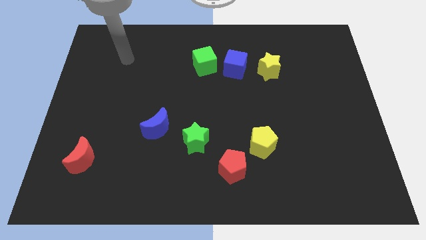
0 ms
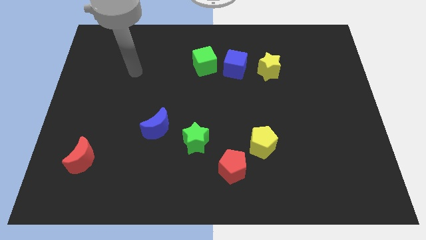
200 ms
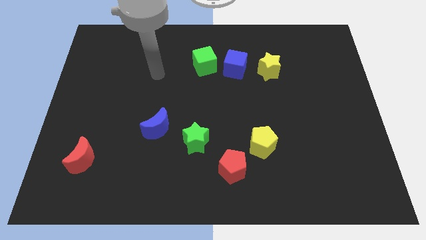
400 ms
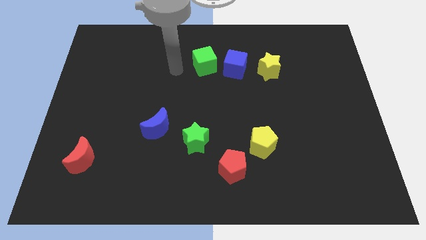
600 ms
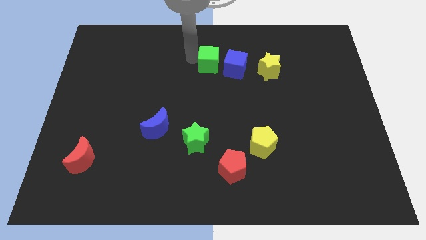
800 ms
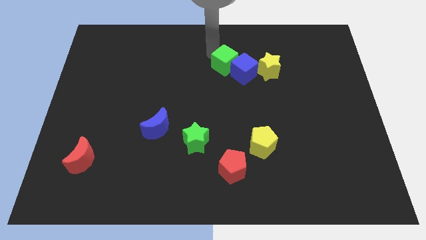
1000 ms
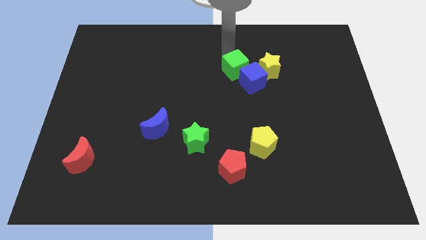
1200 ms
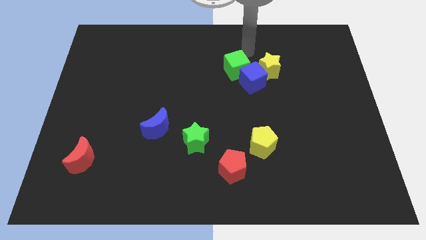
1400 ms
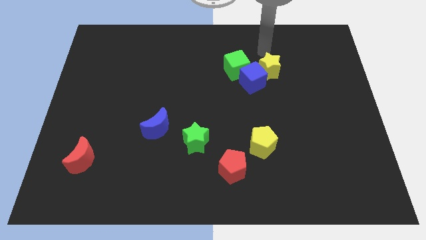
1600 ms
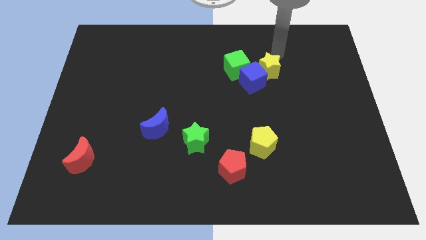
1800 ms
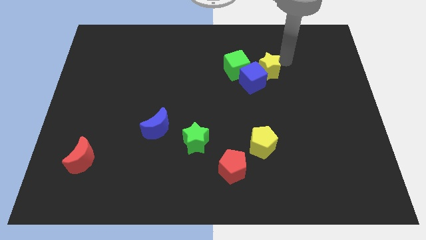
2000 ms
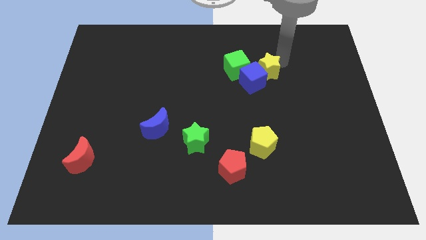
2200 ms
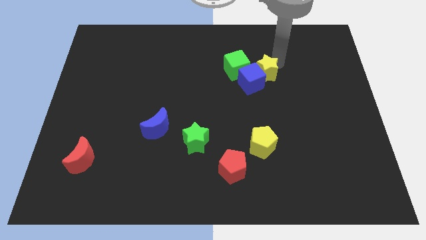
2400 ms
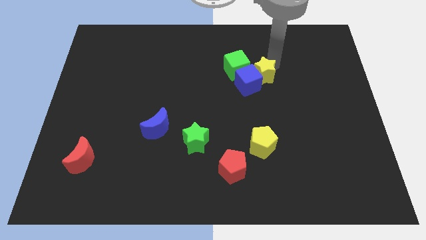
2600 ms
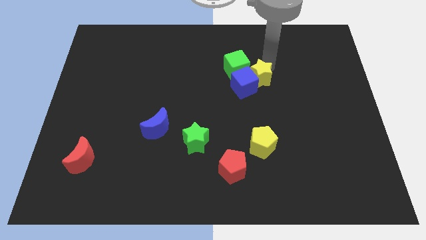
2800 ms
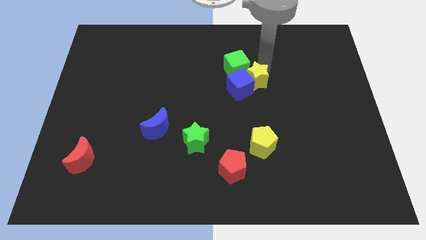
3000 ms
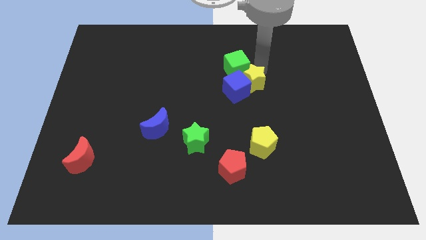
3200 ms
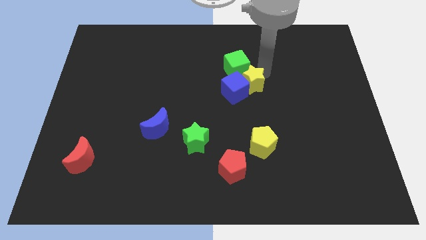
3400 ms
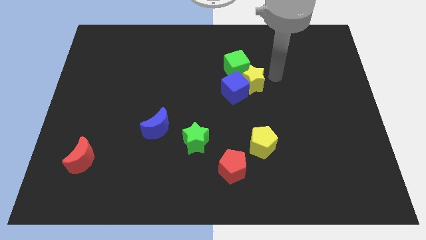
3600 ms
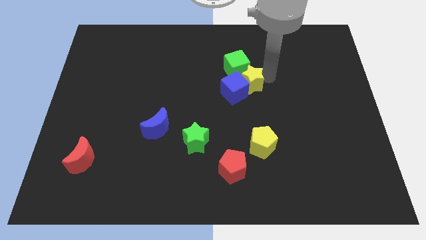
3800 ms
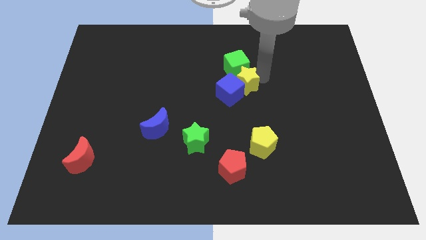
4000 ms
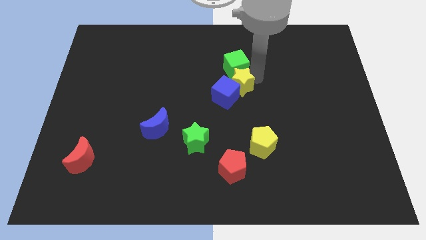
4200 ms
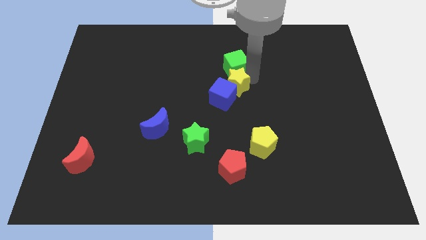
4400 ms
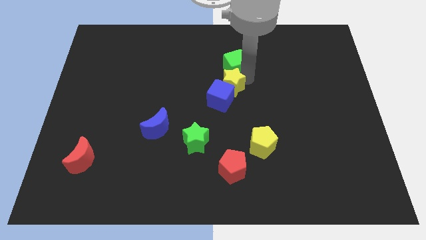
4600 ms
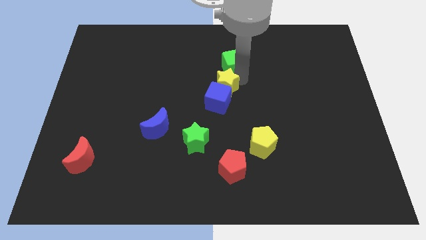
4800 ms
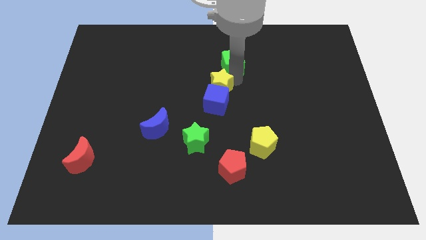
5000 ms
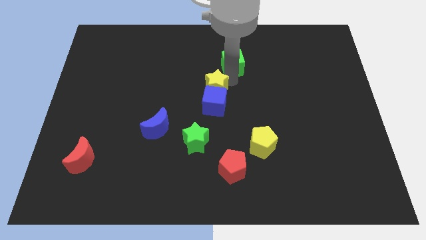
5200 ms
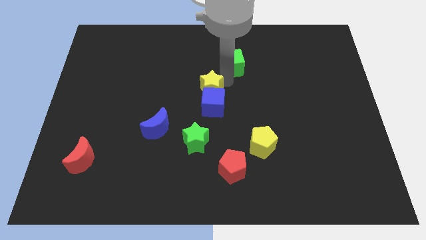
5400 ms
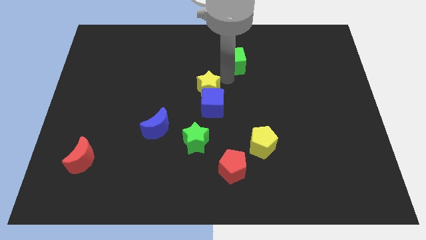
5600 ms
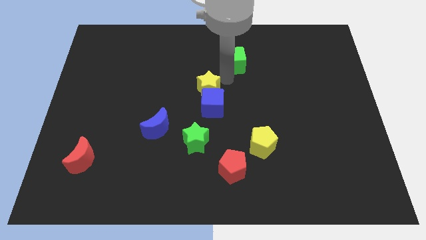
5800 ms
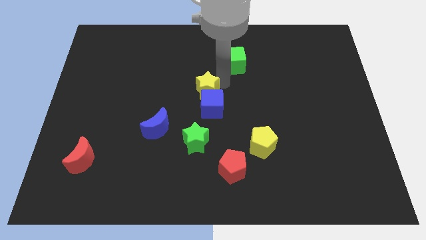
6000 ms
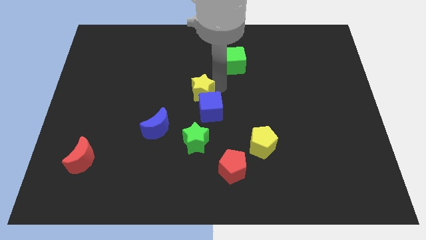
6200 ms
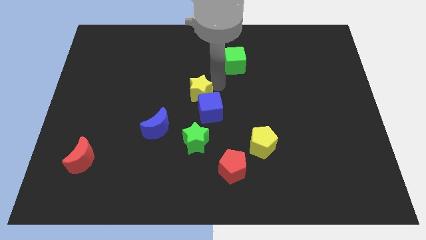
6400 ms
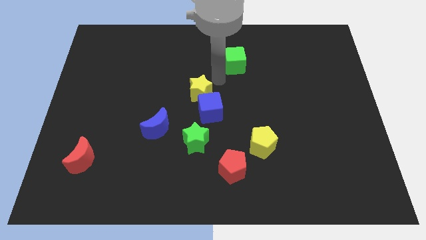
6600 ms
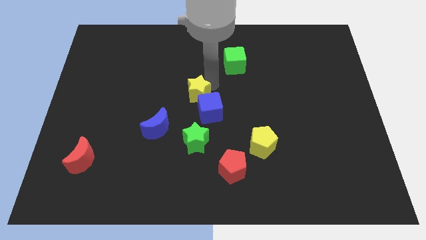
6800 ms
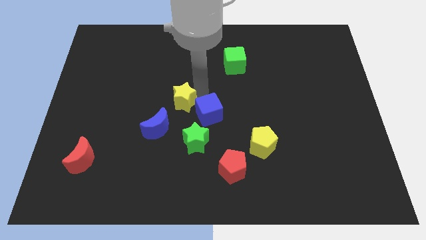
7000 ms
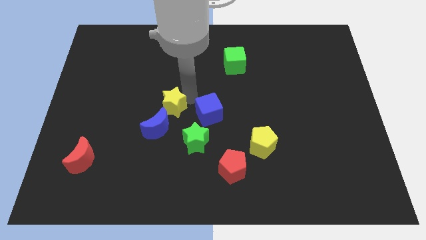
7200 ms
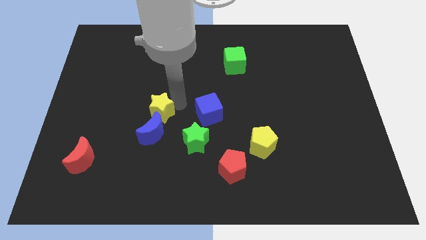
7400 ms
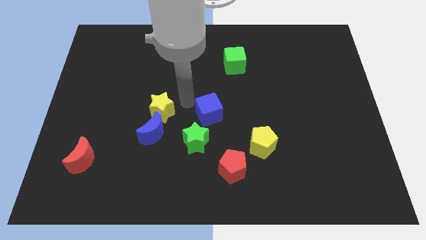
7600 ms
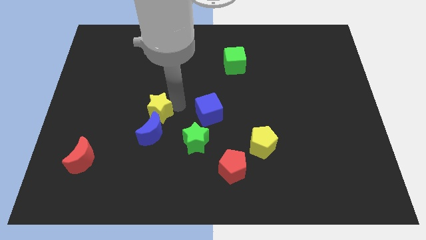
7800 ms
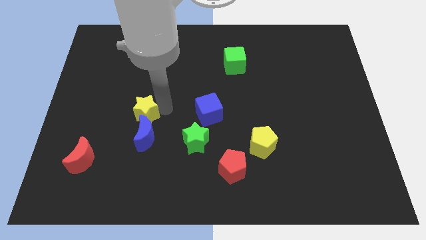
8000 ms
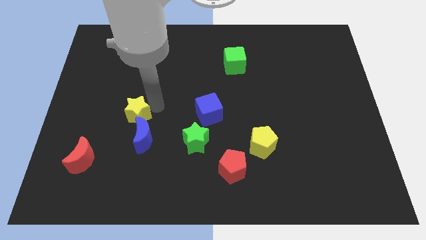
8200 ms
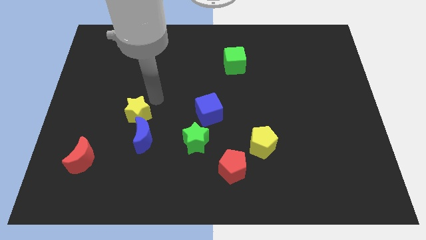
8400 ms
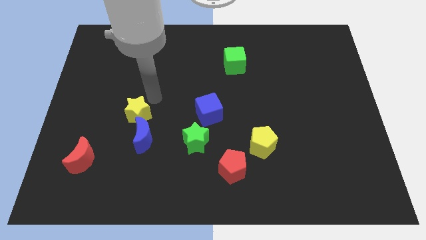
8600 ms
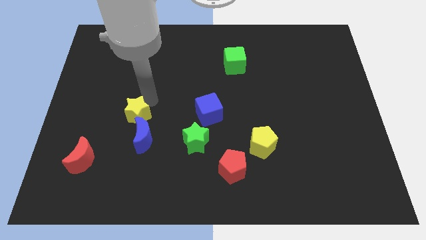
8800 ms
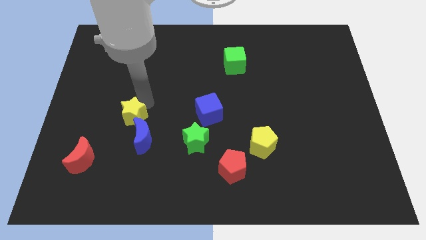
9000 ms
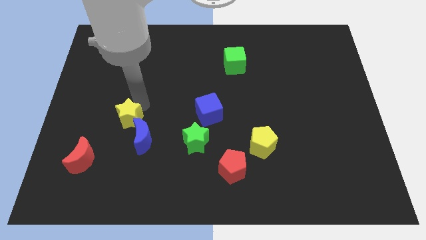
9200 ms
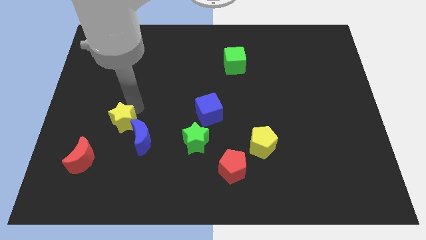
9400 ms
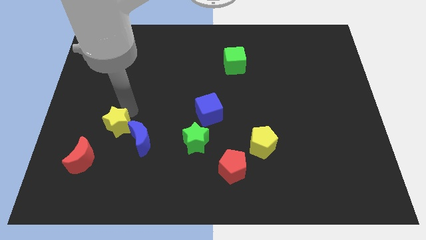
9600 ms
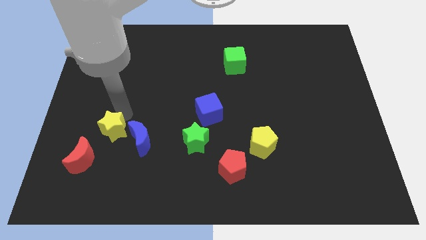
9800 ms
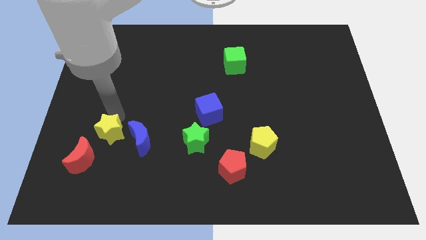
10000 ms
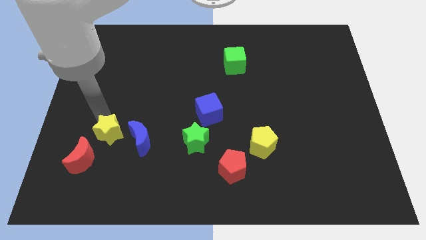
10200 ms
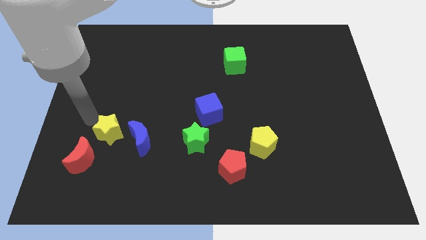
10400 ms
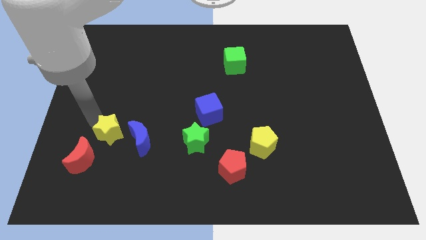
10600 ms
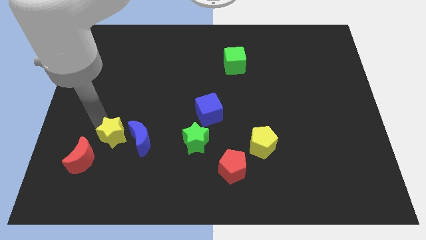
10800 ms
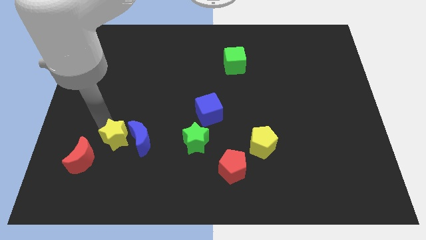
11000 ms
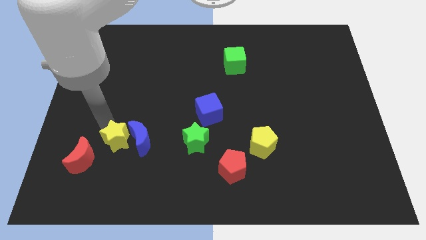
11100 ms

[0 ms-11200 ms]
slide the yellow star right of the red moon

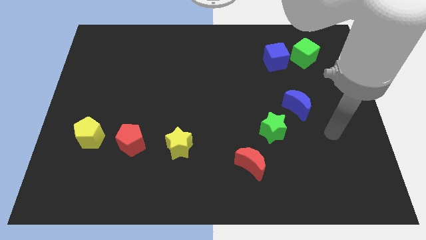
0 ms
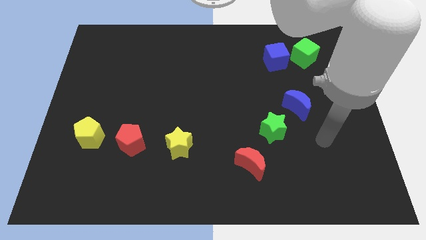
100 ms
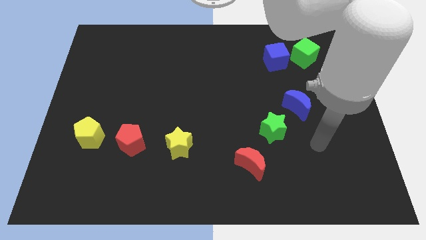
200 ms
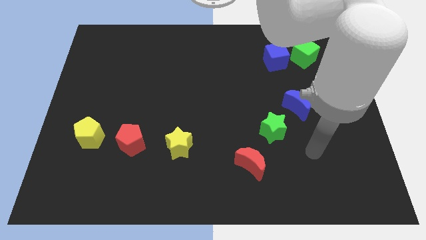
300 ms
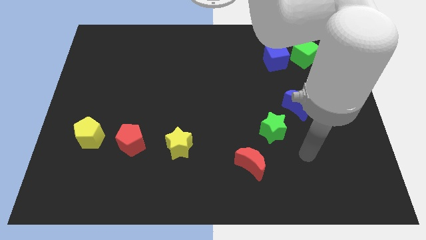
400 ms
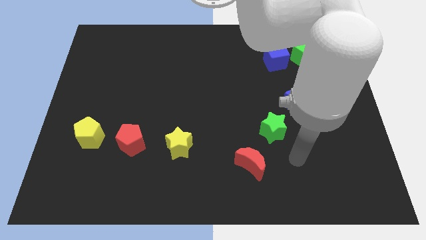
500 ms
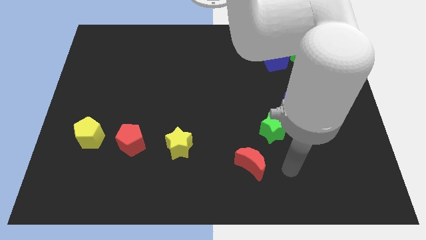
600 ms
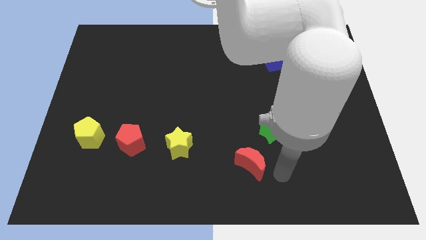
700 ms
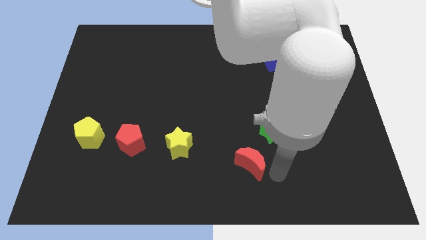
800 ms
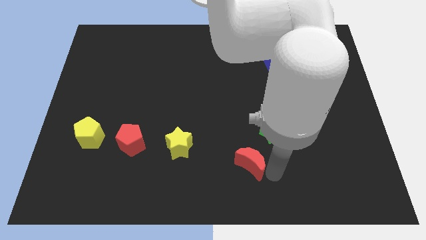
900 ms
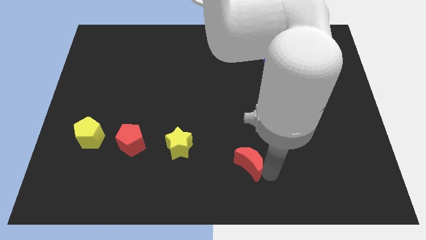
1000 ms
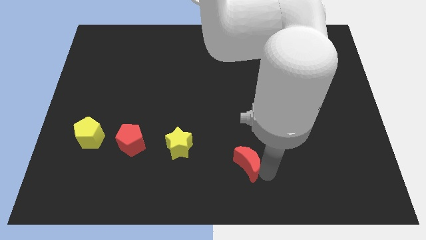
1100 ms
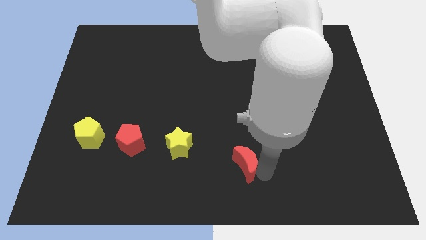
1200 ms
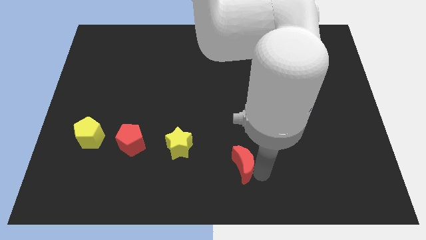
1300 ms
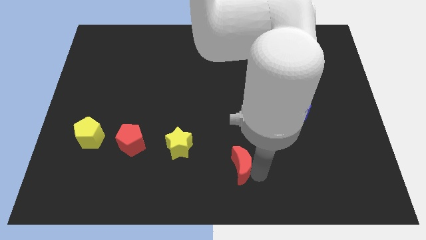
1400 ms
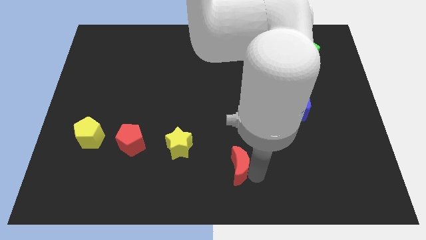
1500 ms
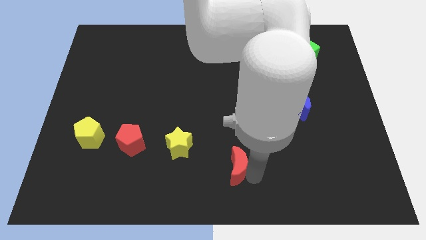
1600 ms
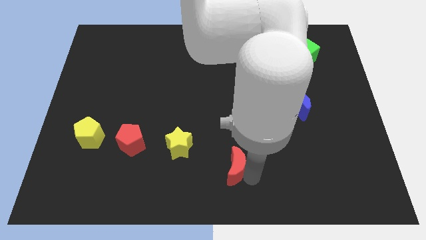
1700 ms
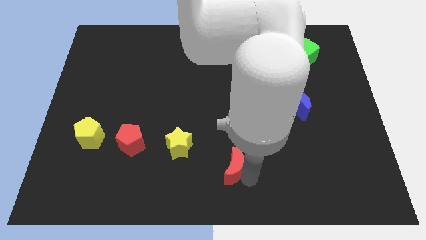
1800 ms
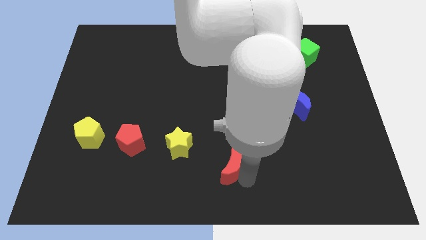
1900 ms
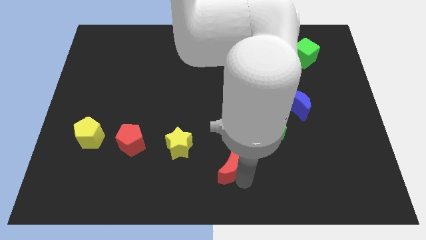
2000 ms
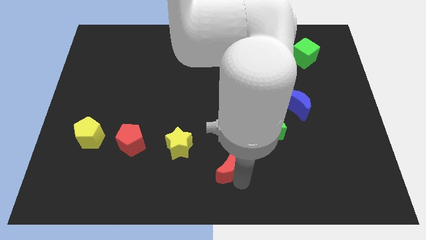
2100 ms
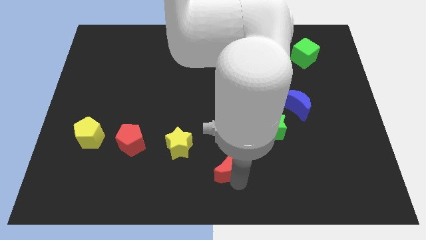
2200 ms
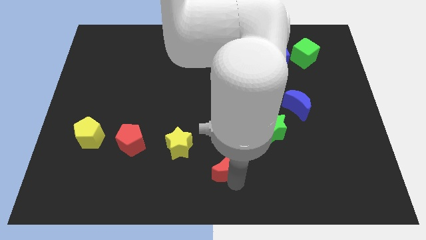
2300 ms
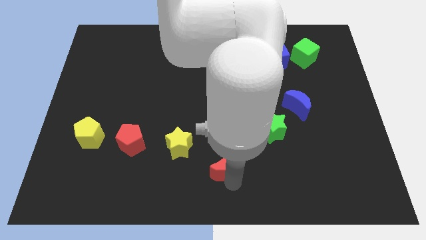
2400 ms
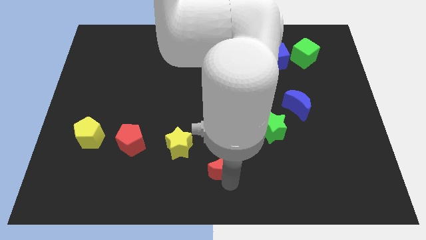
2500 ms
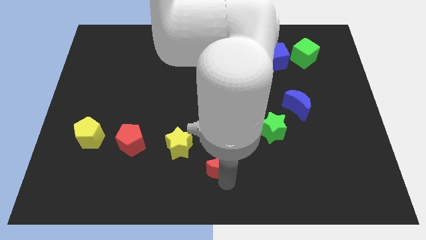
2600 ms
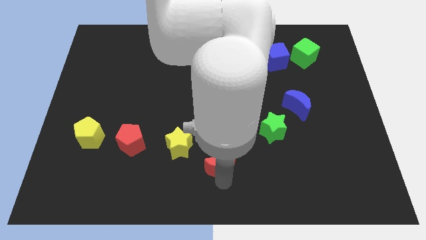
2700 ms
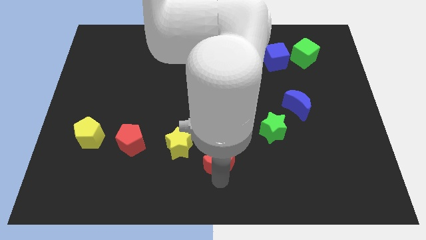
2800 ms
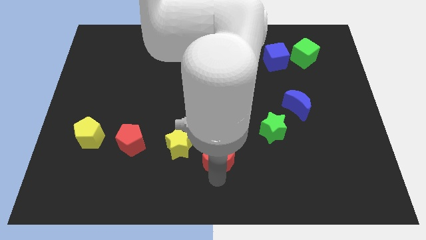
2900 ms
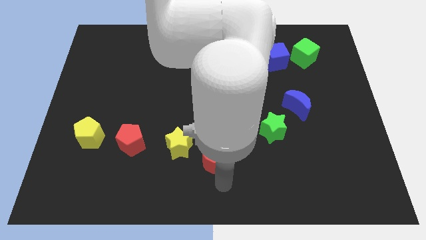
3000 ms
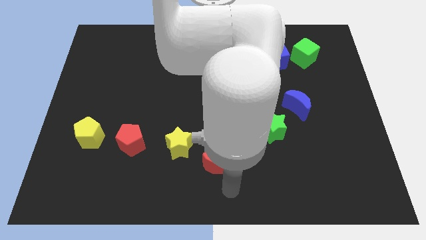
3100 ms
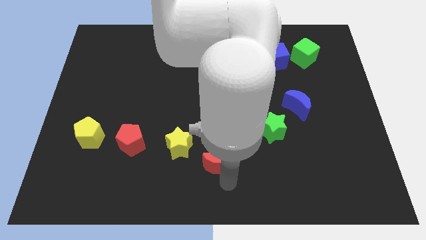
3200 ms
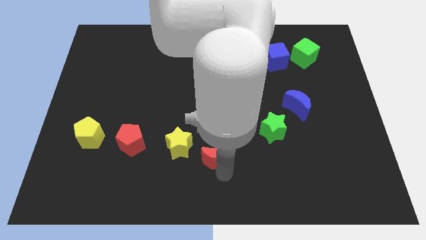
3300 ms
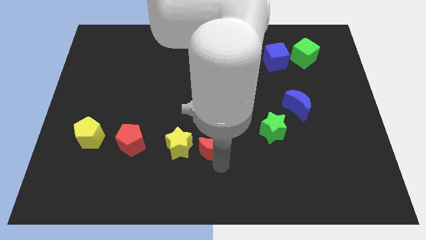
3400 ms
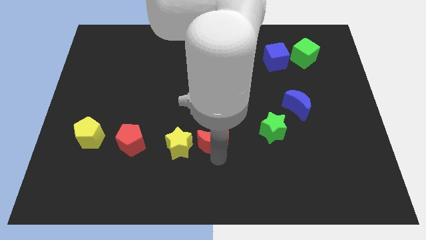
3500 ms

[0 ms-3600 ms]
put the red moon to the top right side of the yellow star
